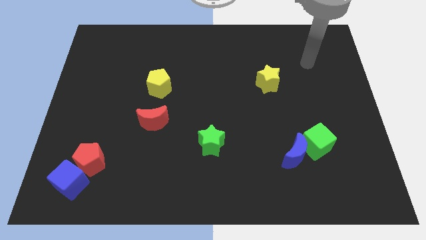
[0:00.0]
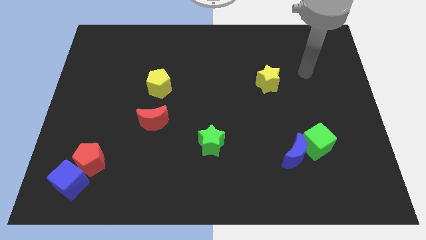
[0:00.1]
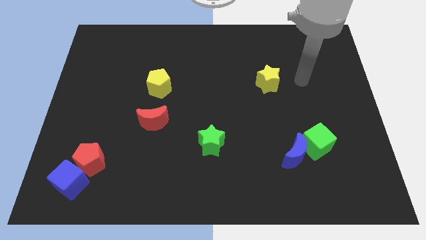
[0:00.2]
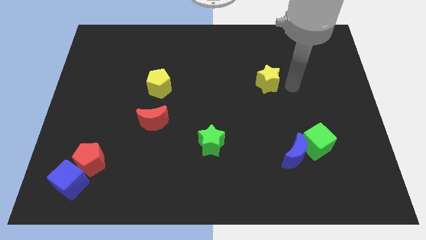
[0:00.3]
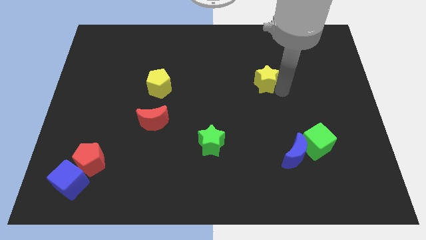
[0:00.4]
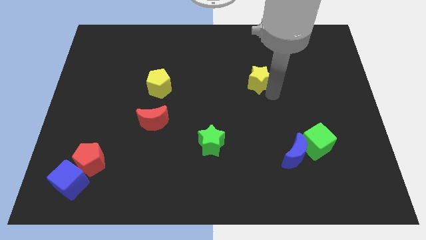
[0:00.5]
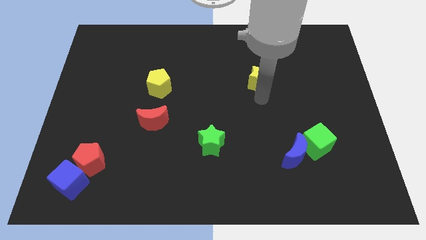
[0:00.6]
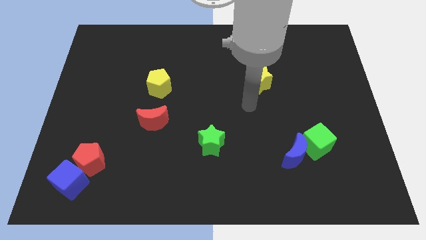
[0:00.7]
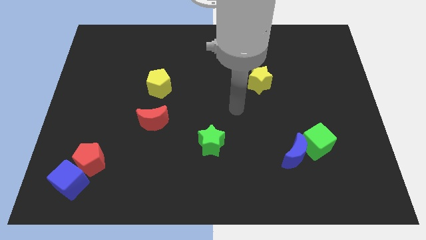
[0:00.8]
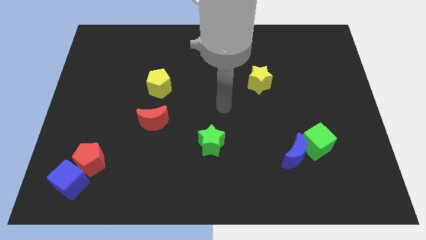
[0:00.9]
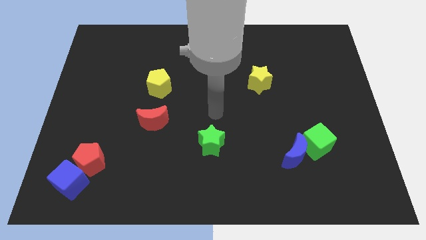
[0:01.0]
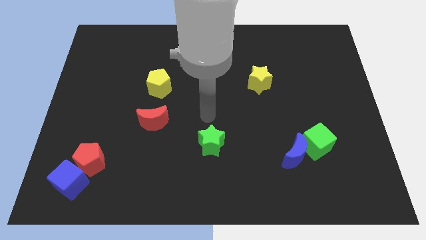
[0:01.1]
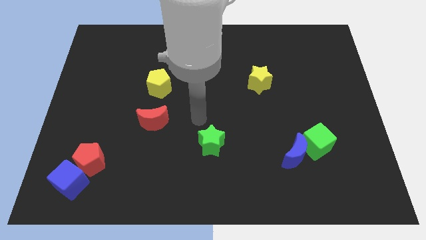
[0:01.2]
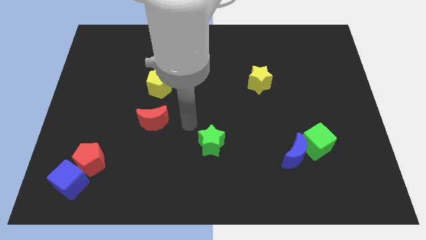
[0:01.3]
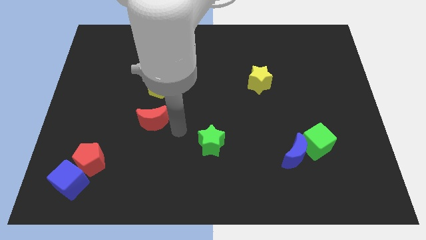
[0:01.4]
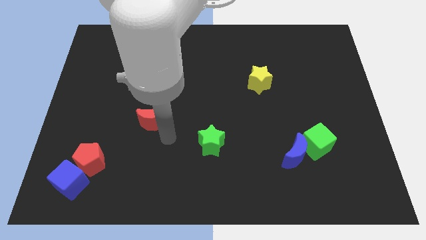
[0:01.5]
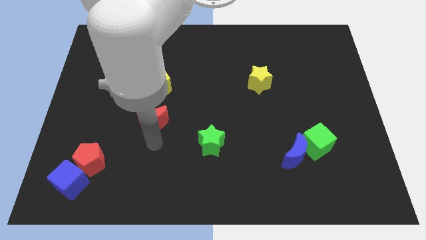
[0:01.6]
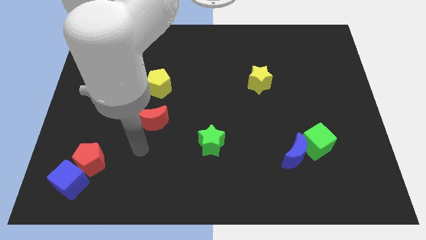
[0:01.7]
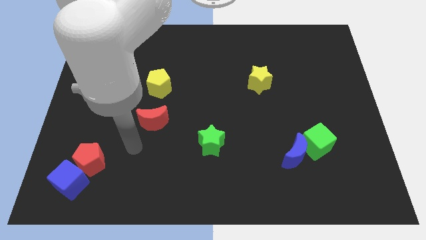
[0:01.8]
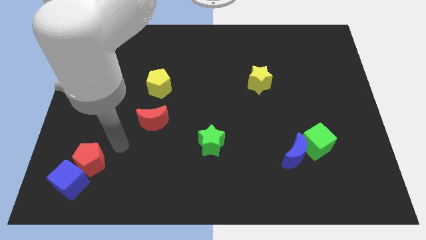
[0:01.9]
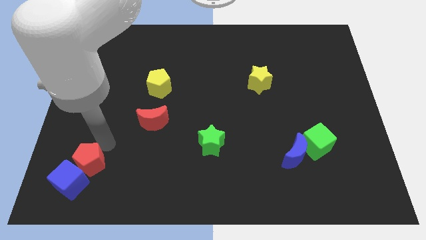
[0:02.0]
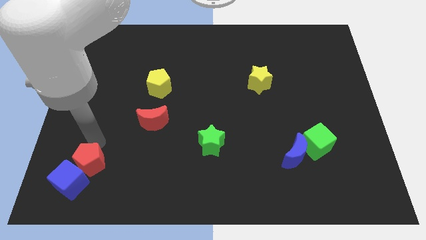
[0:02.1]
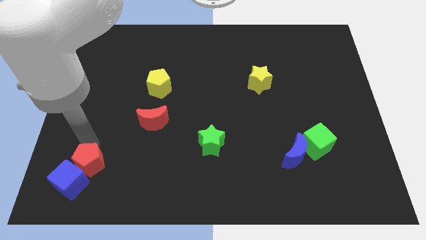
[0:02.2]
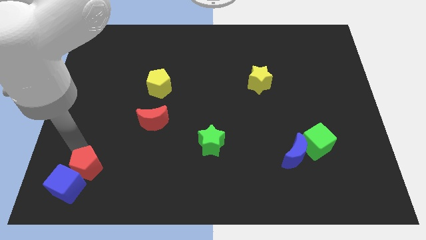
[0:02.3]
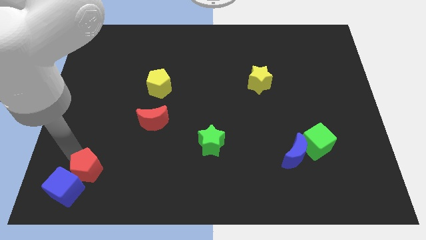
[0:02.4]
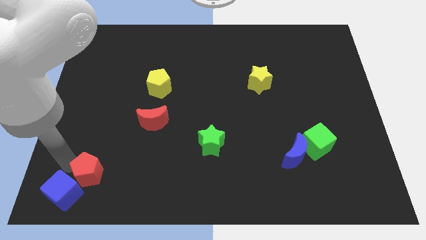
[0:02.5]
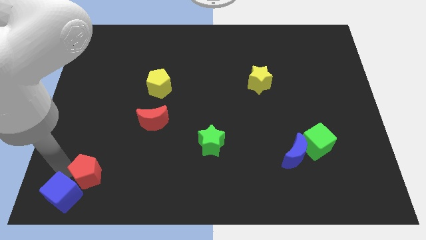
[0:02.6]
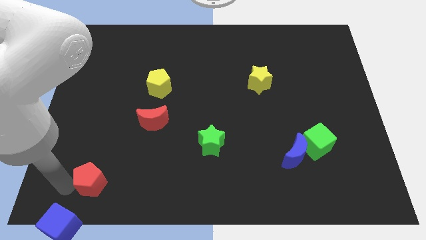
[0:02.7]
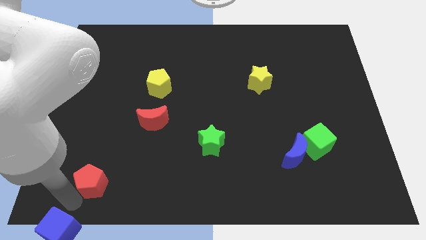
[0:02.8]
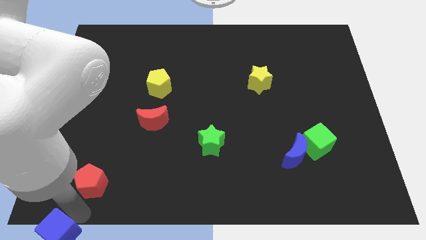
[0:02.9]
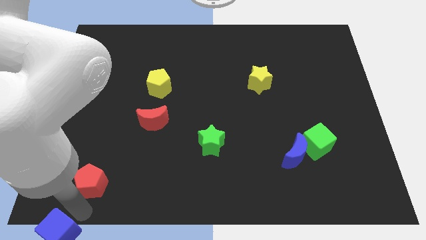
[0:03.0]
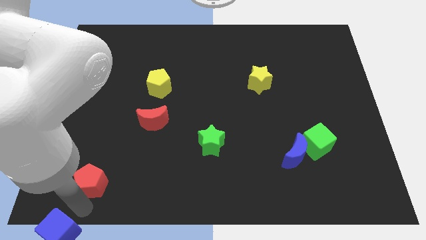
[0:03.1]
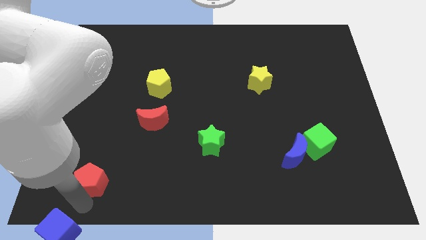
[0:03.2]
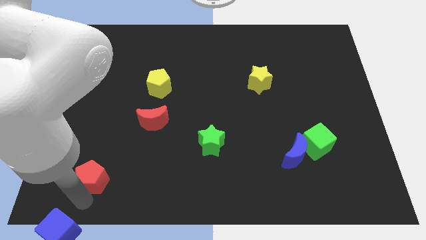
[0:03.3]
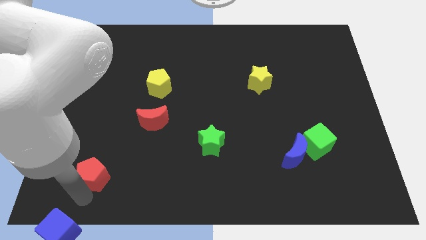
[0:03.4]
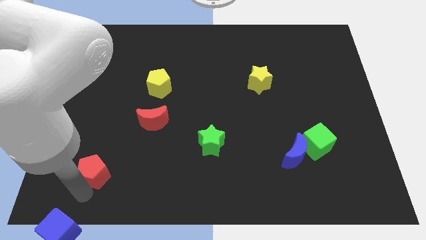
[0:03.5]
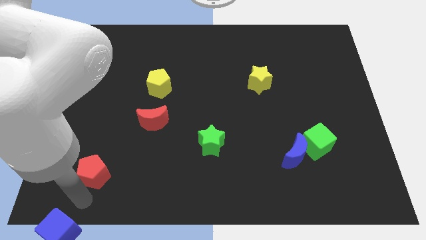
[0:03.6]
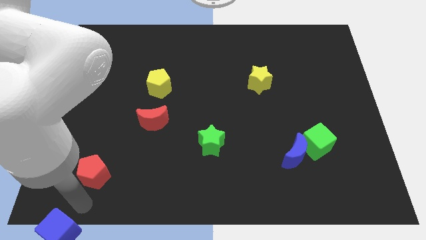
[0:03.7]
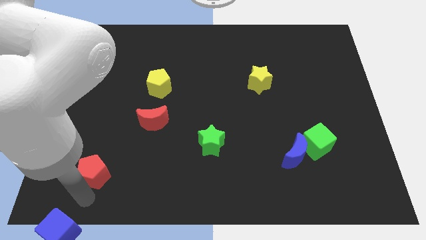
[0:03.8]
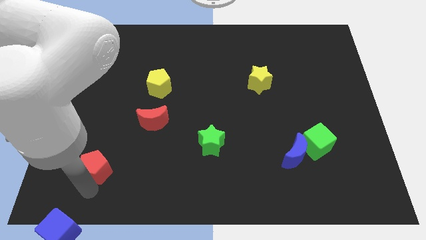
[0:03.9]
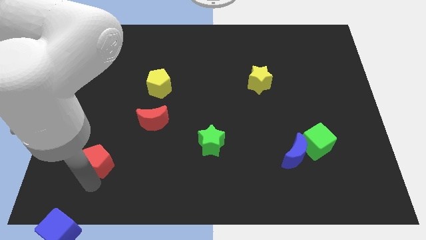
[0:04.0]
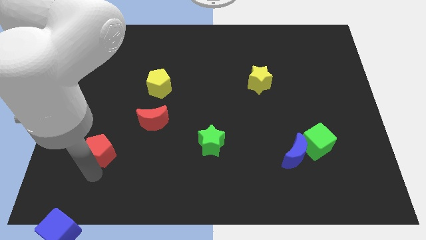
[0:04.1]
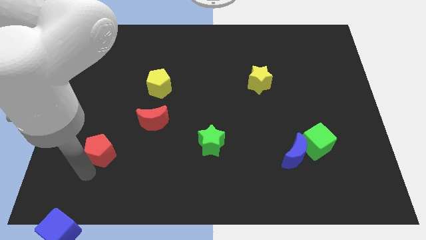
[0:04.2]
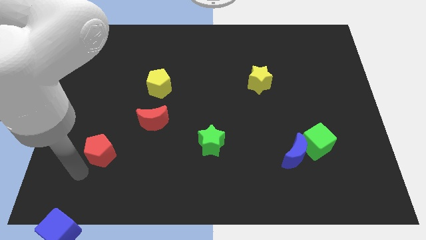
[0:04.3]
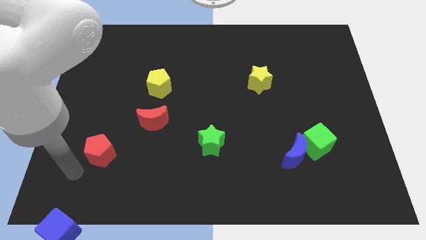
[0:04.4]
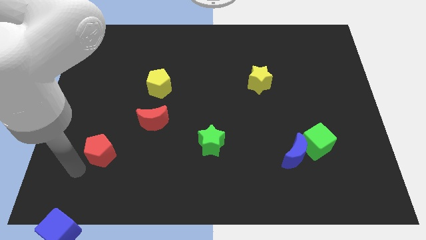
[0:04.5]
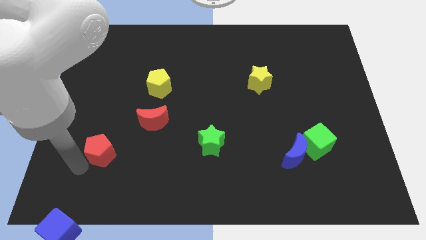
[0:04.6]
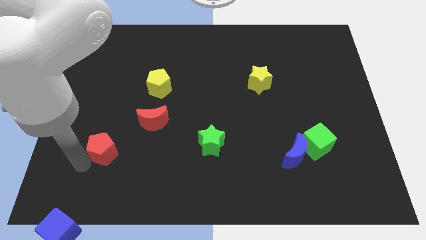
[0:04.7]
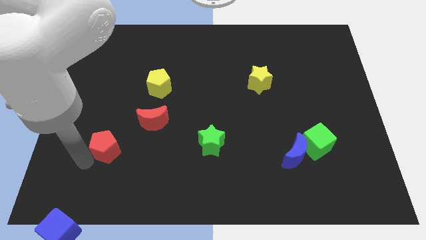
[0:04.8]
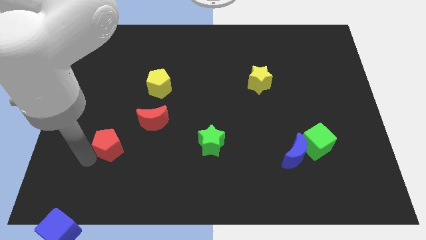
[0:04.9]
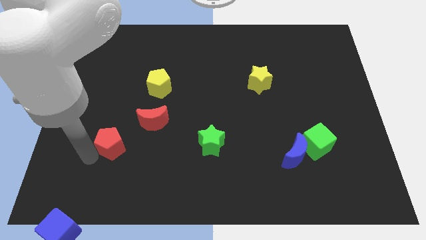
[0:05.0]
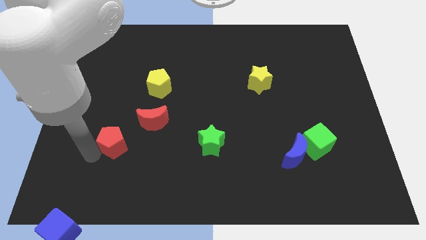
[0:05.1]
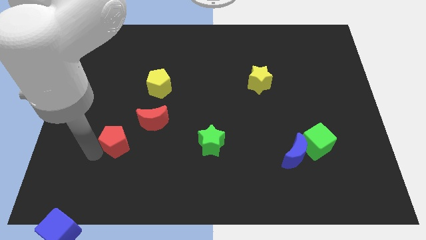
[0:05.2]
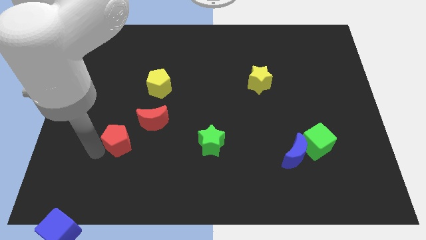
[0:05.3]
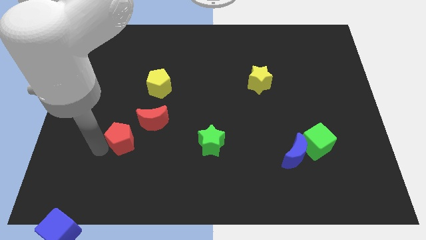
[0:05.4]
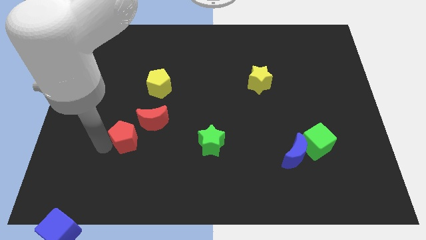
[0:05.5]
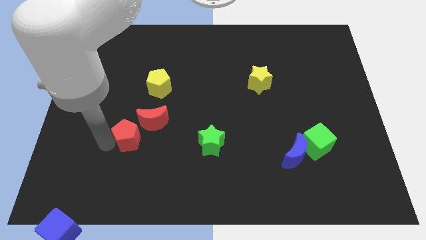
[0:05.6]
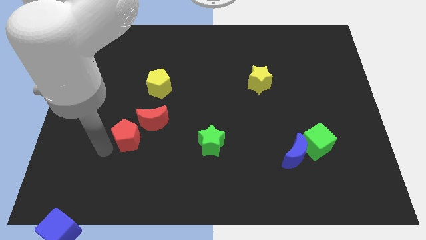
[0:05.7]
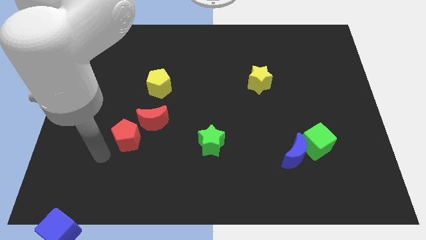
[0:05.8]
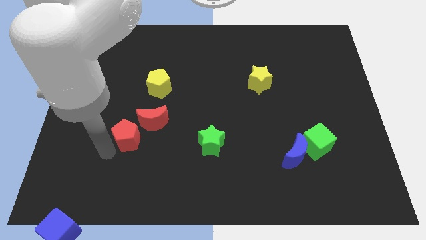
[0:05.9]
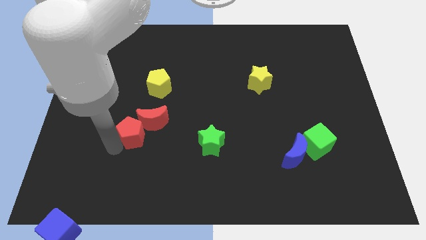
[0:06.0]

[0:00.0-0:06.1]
move the red pentagon next to the red moon

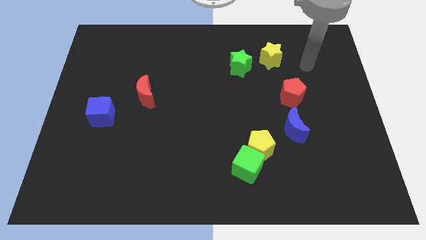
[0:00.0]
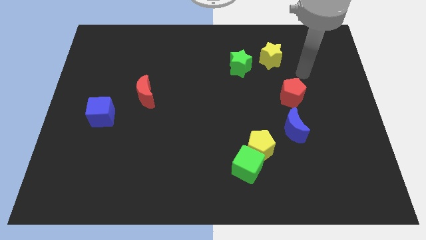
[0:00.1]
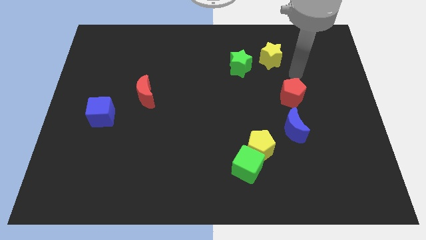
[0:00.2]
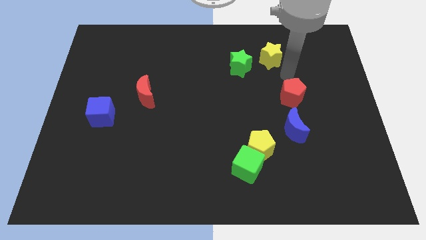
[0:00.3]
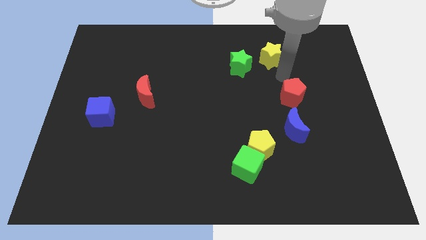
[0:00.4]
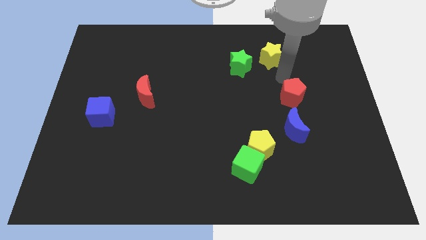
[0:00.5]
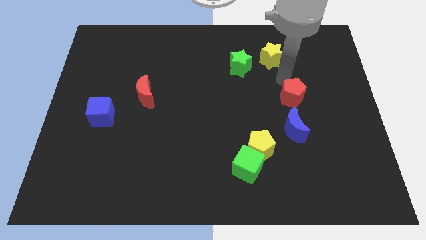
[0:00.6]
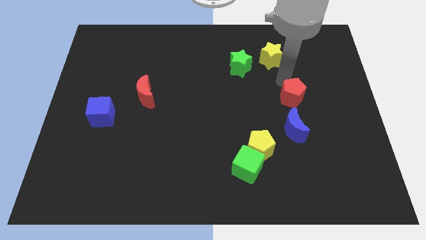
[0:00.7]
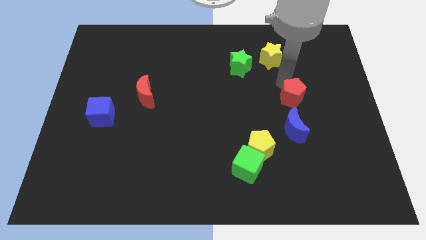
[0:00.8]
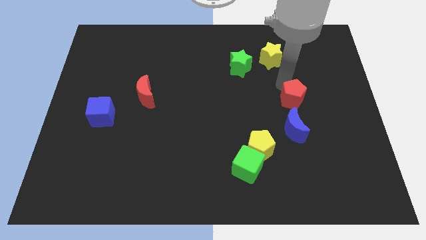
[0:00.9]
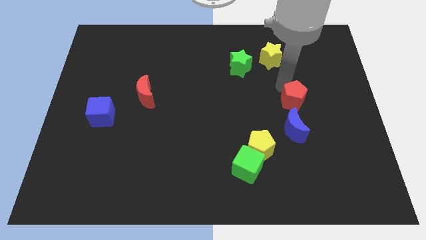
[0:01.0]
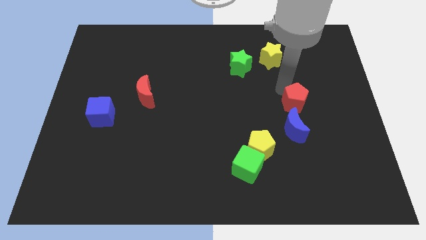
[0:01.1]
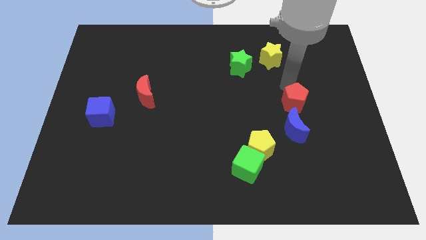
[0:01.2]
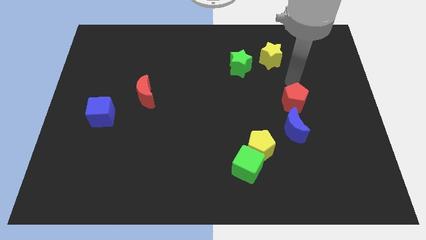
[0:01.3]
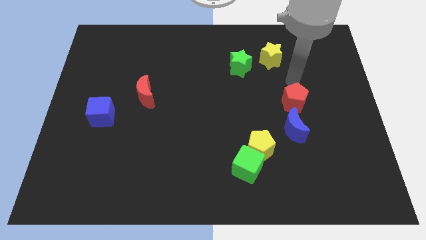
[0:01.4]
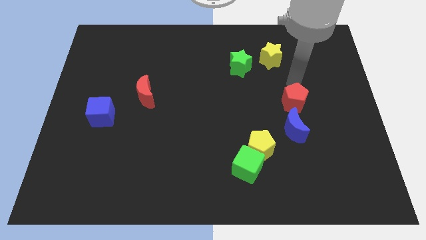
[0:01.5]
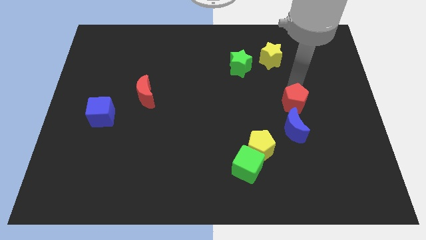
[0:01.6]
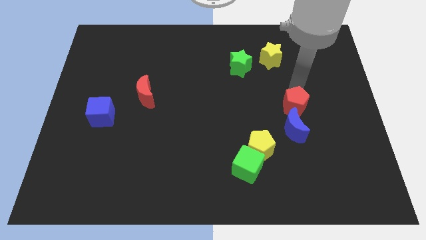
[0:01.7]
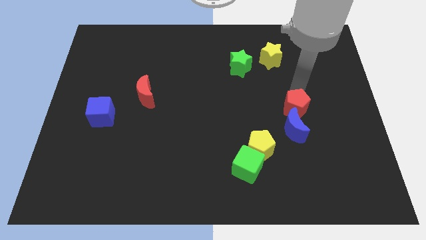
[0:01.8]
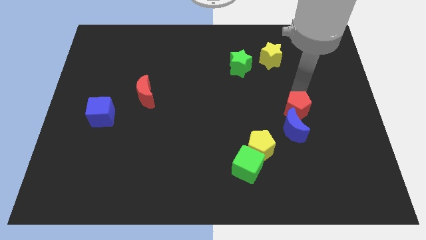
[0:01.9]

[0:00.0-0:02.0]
slide the red pentagon towards the blue moon
